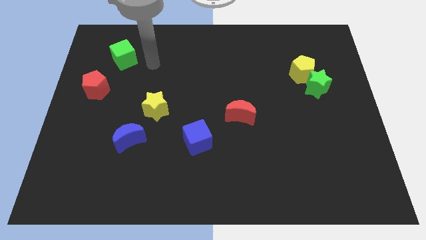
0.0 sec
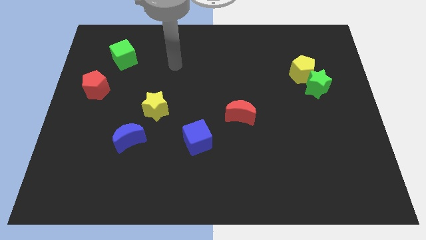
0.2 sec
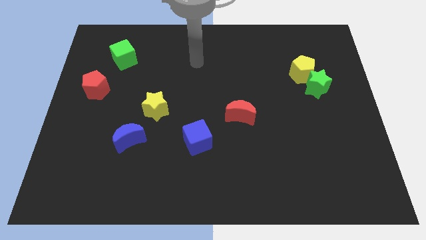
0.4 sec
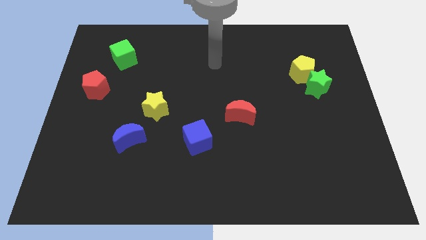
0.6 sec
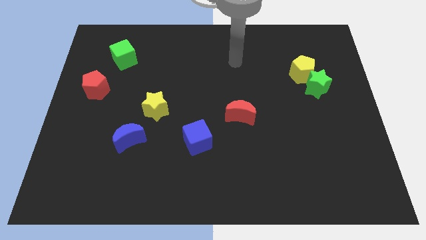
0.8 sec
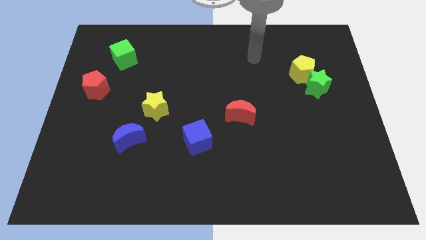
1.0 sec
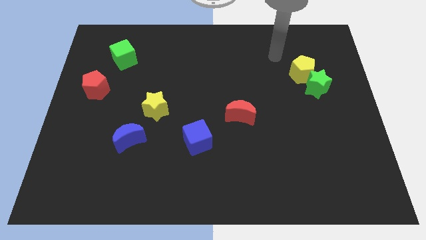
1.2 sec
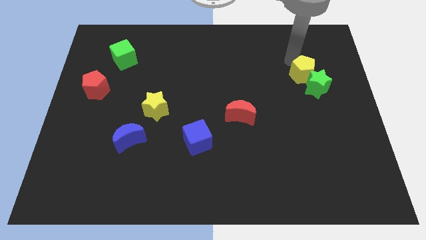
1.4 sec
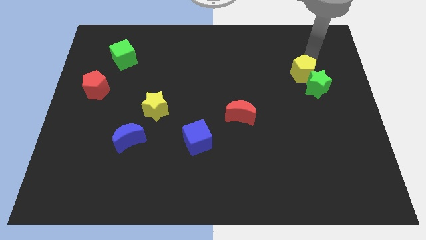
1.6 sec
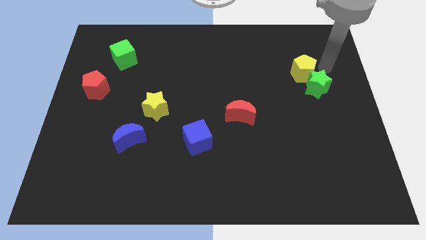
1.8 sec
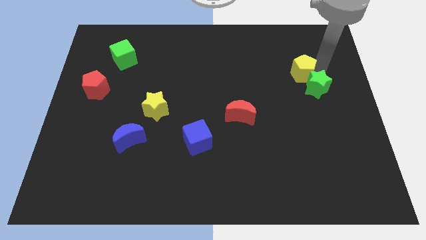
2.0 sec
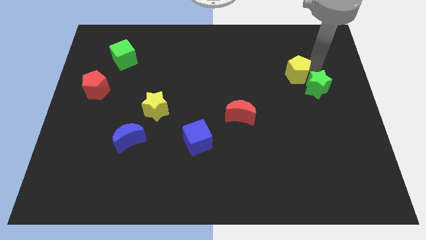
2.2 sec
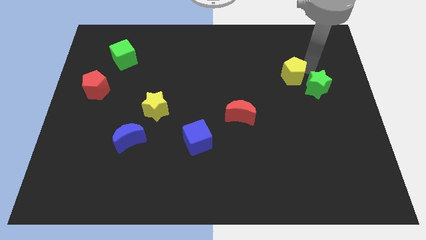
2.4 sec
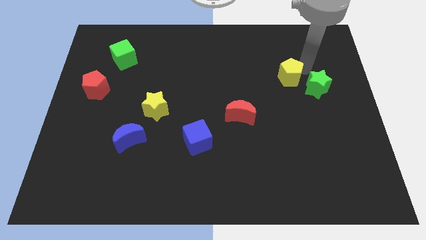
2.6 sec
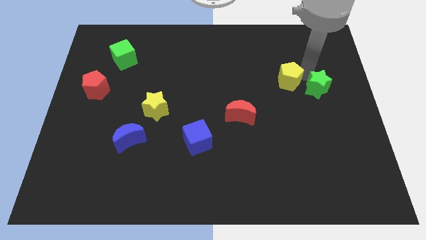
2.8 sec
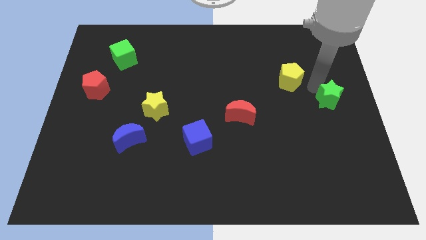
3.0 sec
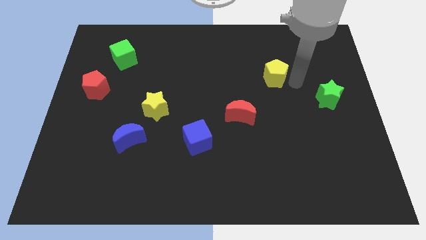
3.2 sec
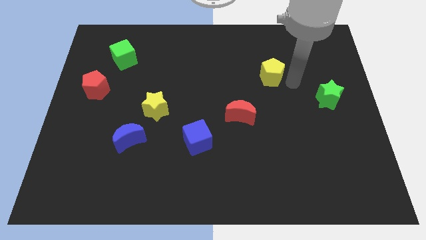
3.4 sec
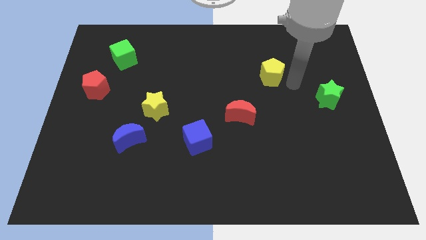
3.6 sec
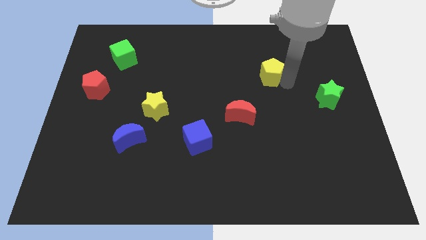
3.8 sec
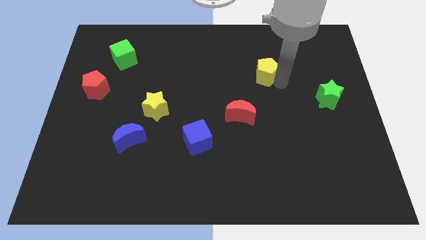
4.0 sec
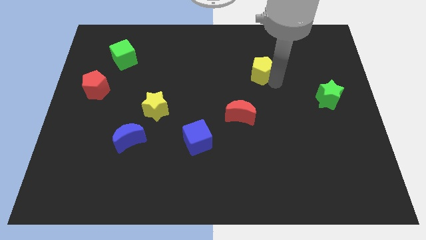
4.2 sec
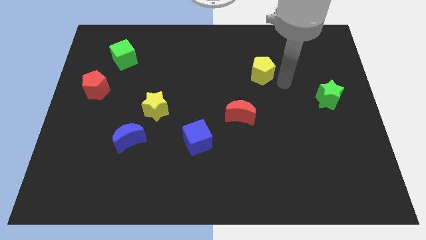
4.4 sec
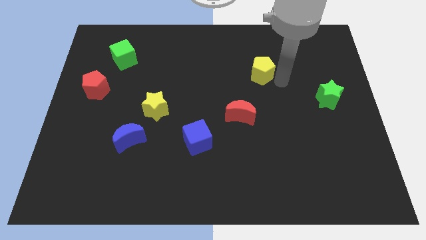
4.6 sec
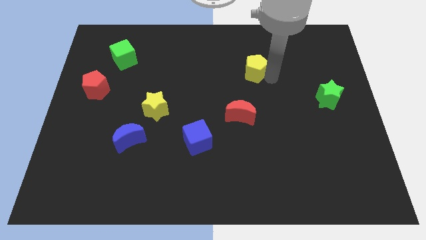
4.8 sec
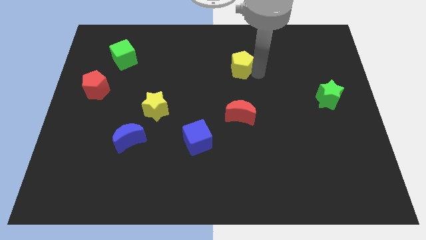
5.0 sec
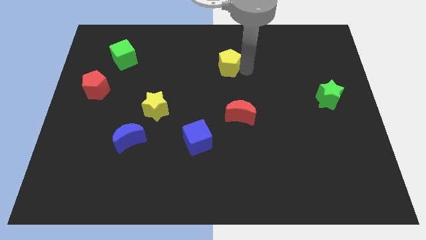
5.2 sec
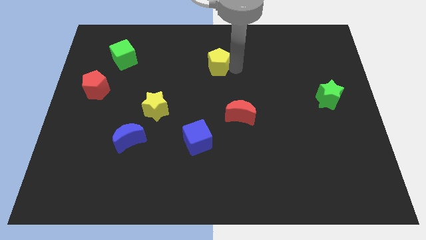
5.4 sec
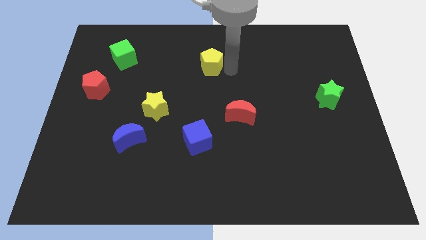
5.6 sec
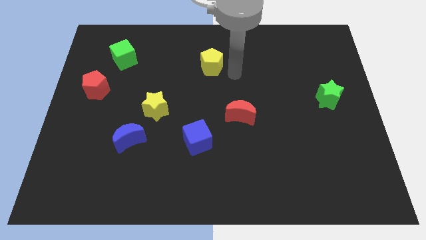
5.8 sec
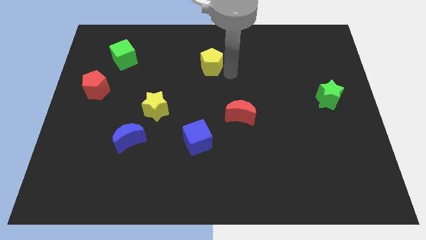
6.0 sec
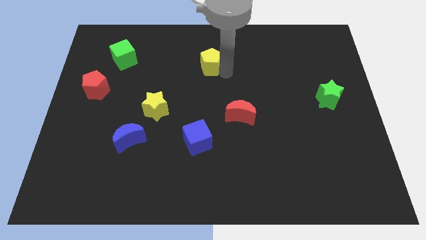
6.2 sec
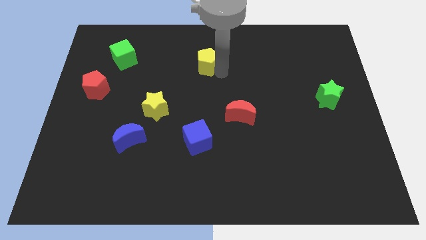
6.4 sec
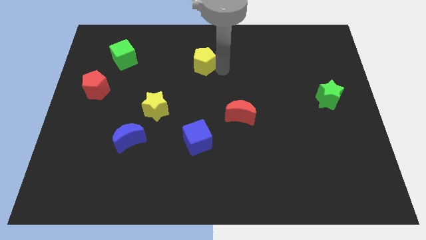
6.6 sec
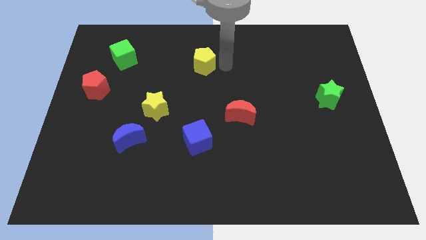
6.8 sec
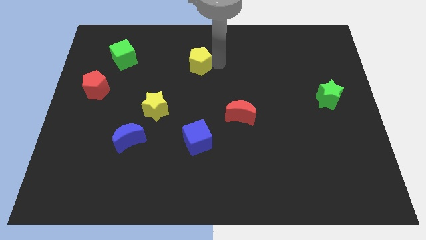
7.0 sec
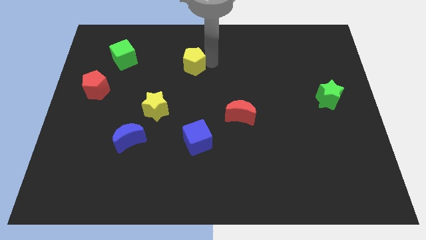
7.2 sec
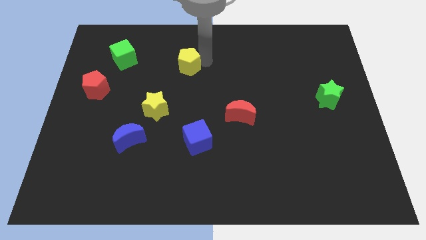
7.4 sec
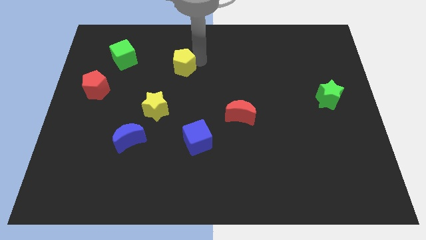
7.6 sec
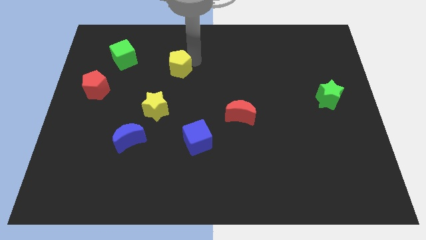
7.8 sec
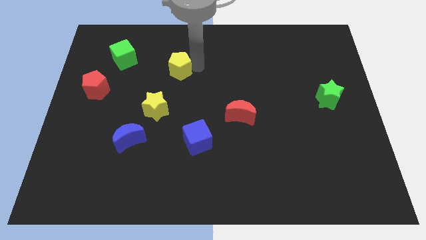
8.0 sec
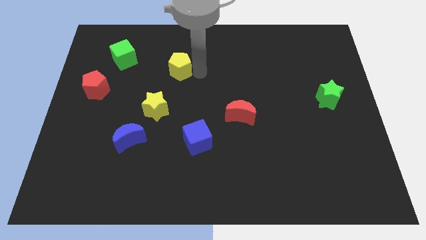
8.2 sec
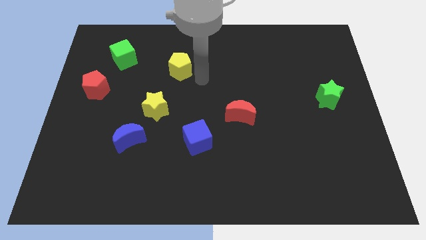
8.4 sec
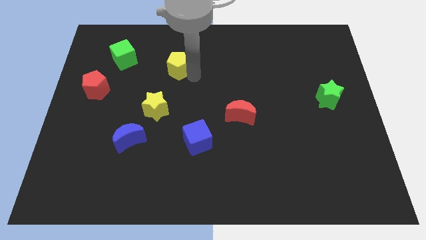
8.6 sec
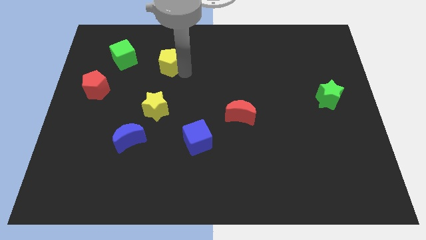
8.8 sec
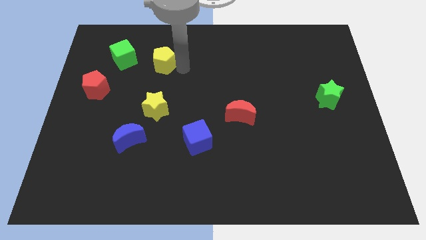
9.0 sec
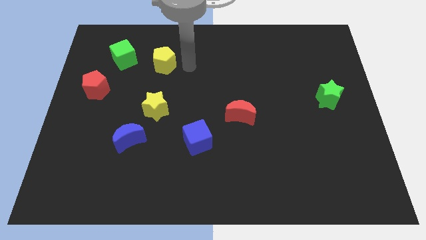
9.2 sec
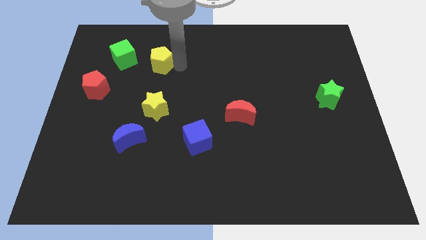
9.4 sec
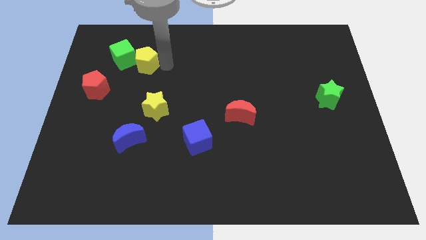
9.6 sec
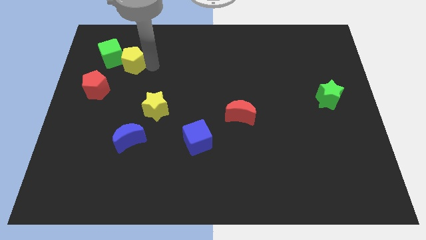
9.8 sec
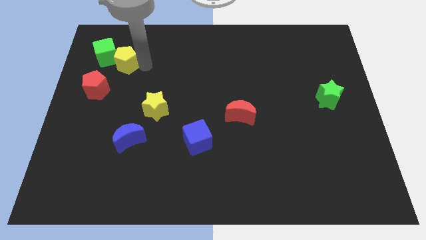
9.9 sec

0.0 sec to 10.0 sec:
slide the yellow pentagon to the green cube

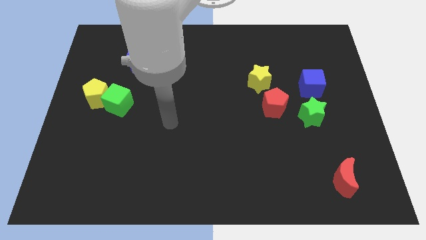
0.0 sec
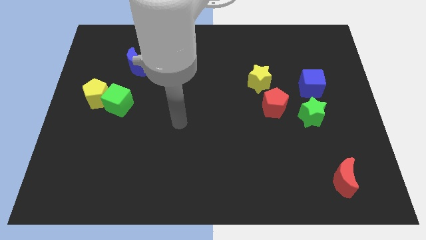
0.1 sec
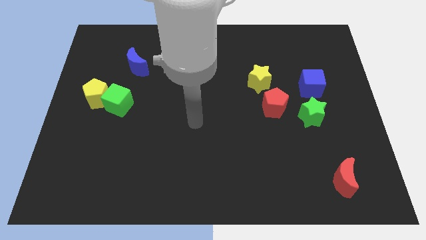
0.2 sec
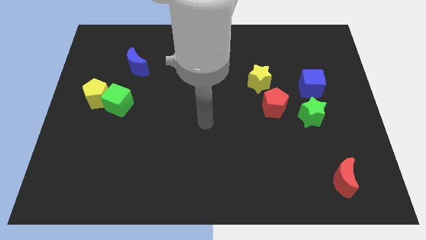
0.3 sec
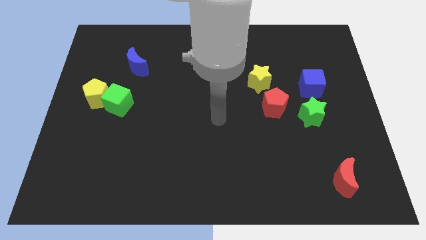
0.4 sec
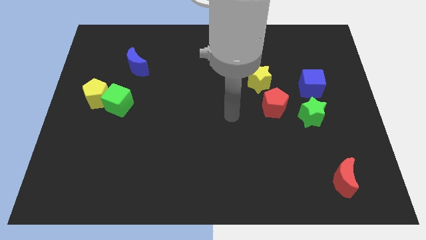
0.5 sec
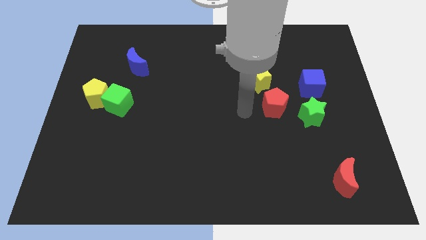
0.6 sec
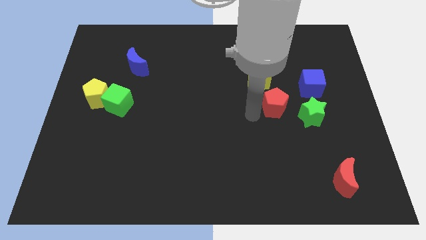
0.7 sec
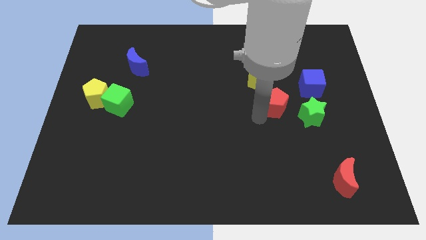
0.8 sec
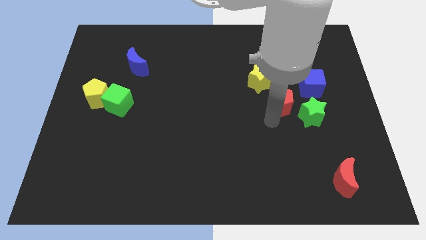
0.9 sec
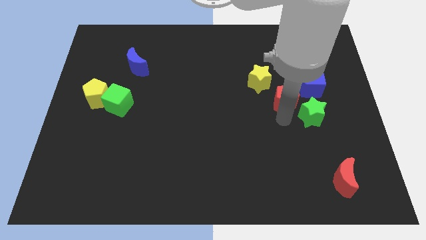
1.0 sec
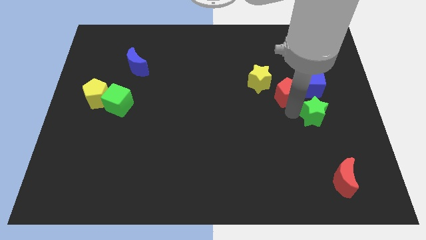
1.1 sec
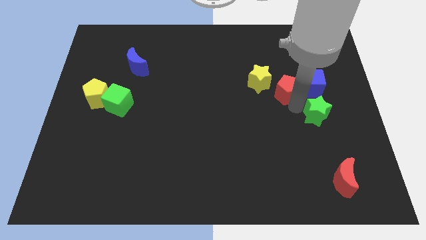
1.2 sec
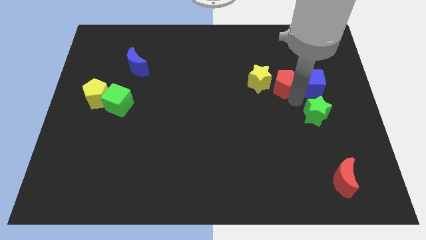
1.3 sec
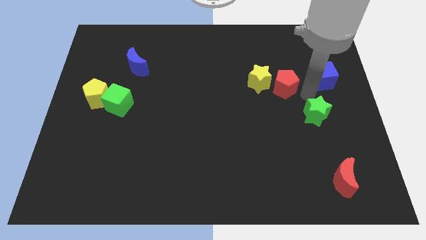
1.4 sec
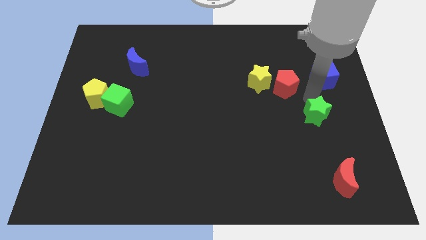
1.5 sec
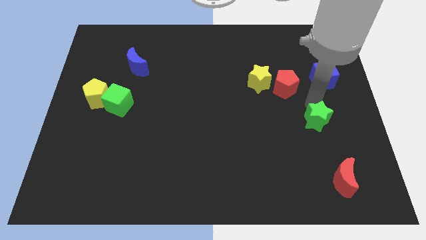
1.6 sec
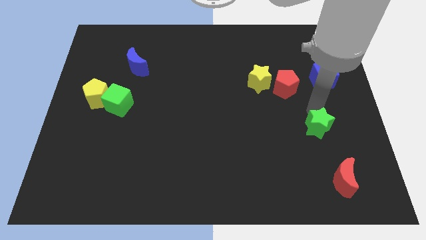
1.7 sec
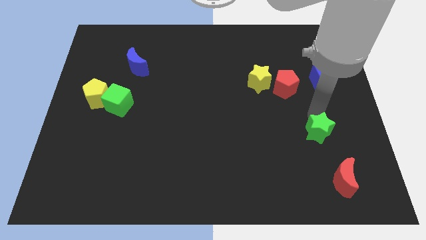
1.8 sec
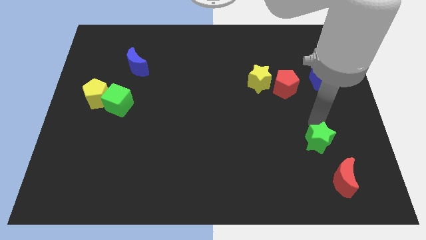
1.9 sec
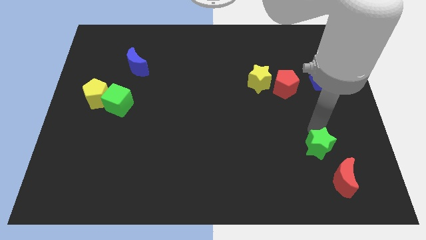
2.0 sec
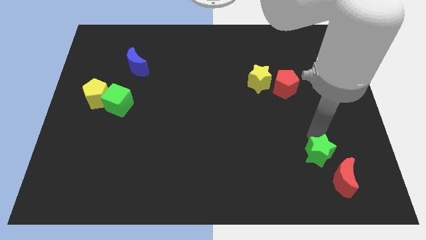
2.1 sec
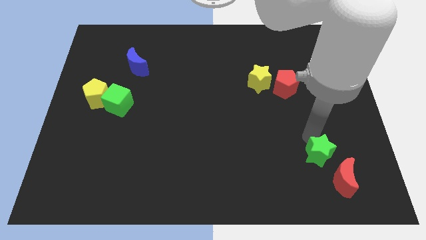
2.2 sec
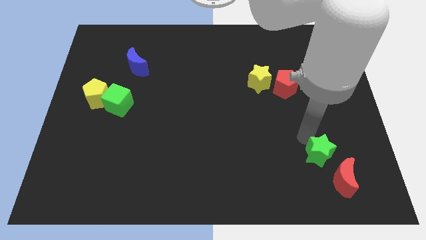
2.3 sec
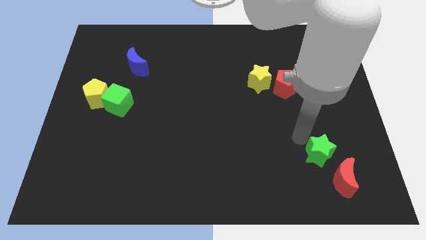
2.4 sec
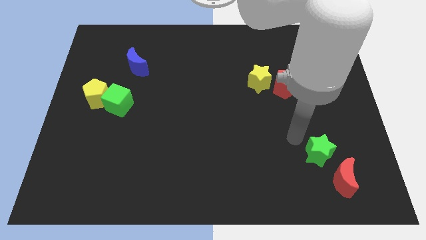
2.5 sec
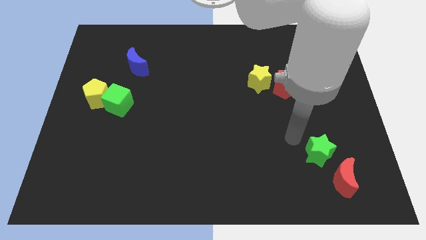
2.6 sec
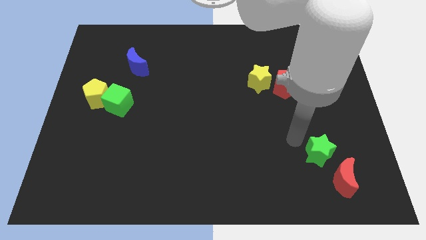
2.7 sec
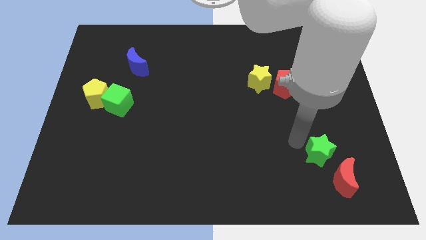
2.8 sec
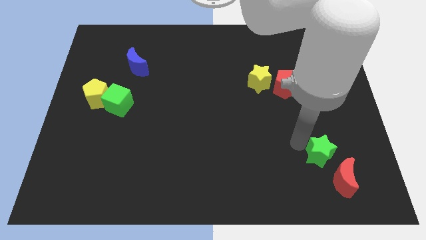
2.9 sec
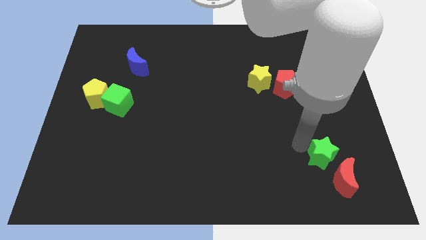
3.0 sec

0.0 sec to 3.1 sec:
put the green star towards the red moon
